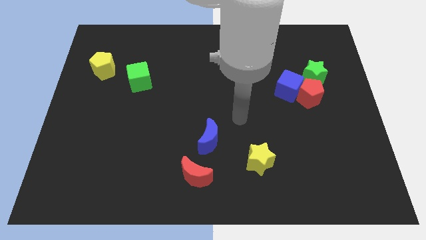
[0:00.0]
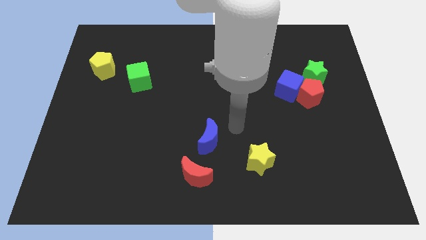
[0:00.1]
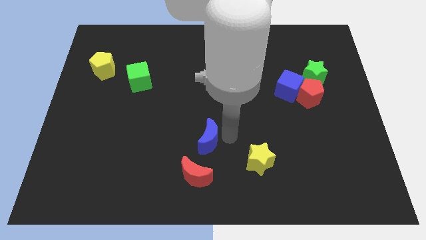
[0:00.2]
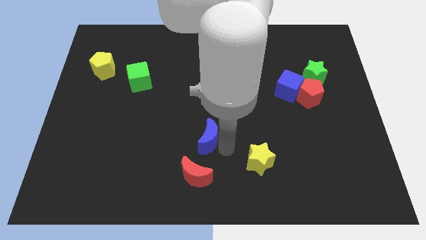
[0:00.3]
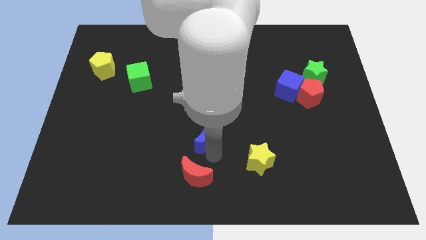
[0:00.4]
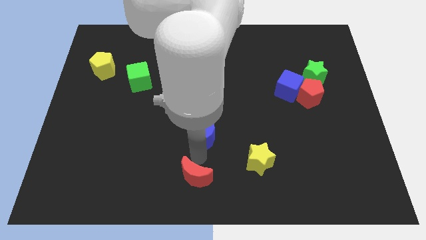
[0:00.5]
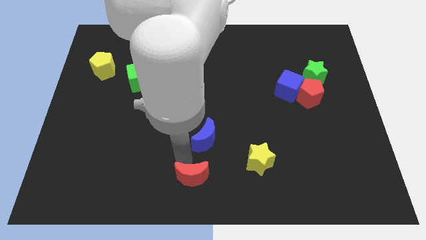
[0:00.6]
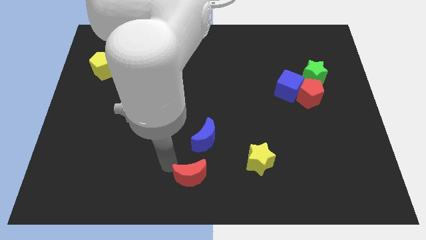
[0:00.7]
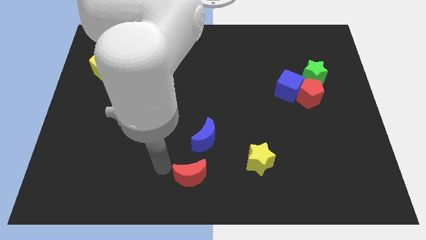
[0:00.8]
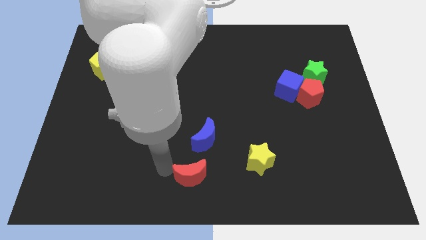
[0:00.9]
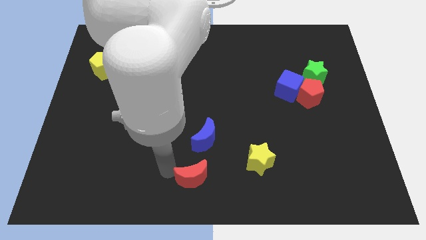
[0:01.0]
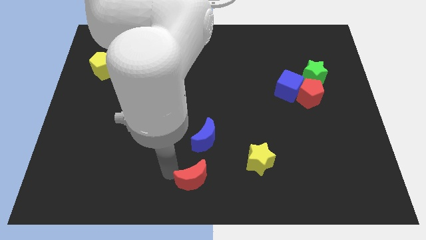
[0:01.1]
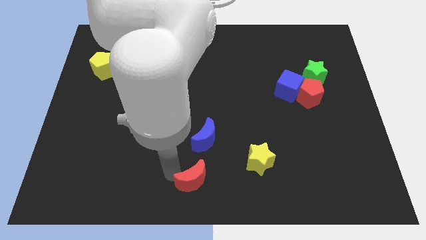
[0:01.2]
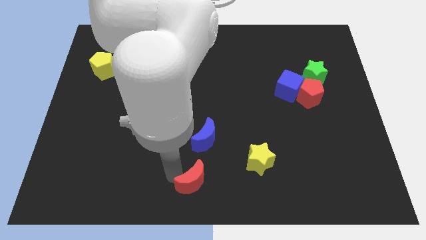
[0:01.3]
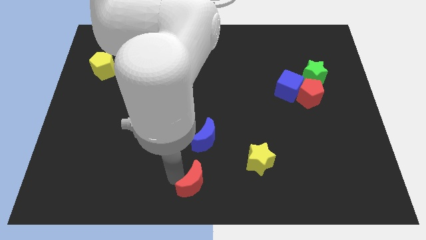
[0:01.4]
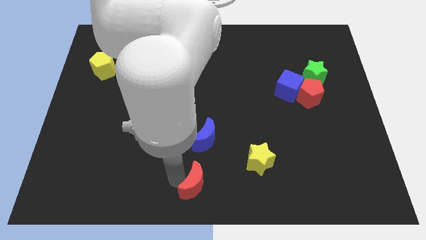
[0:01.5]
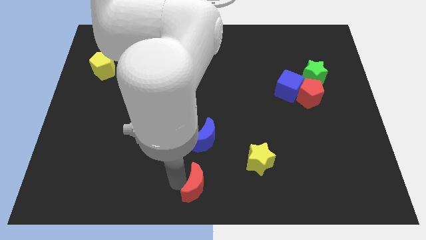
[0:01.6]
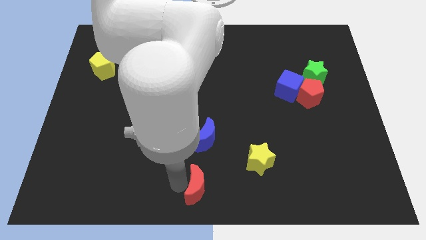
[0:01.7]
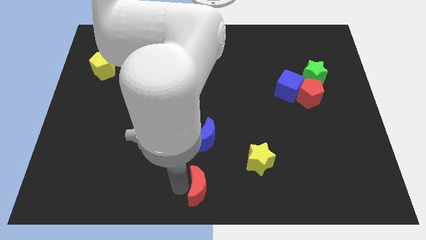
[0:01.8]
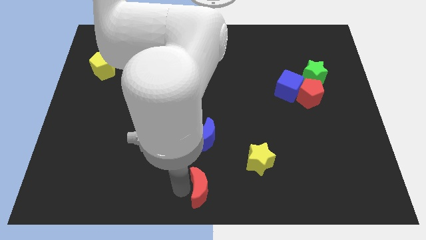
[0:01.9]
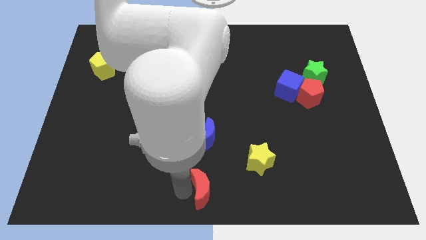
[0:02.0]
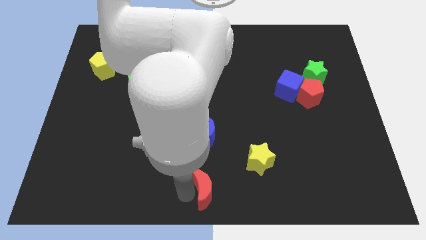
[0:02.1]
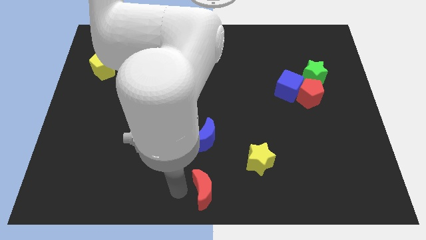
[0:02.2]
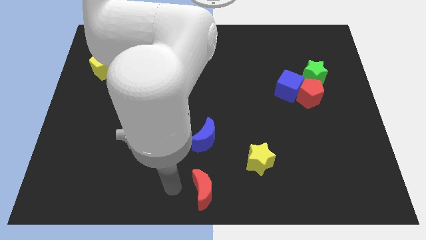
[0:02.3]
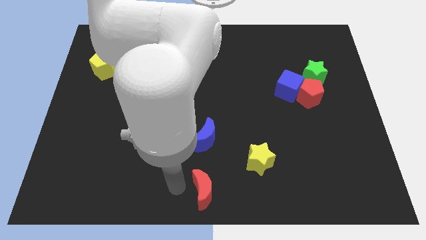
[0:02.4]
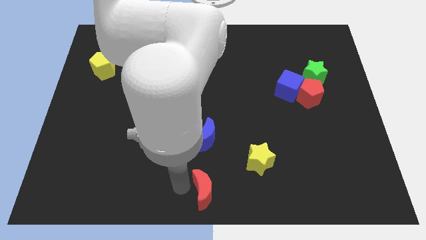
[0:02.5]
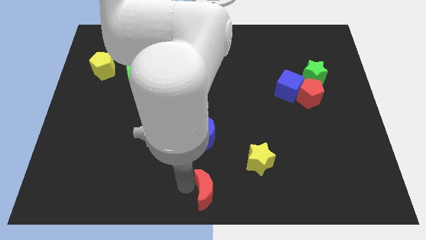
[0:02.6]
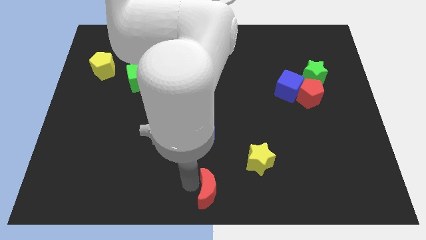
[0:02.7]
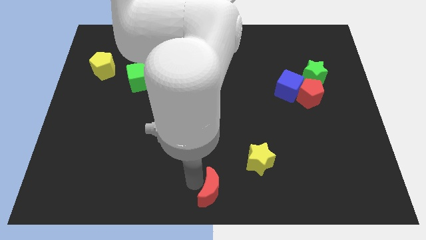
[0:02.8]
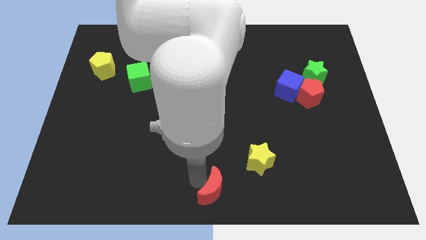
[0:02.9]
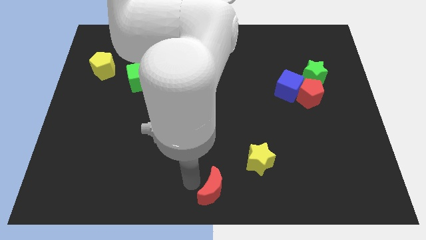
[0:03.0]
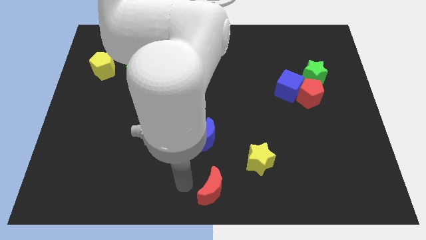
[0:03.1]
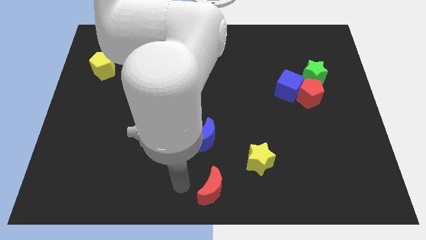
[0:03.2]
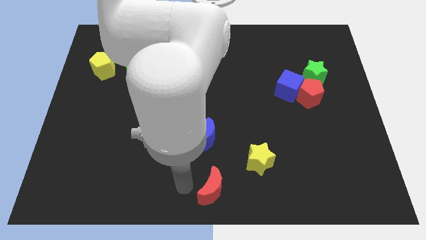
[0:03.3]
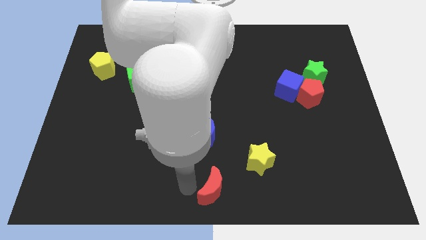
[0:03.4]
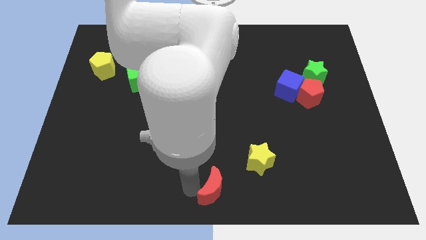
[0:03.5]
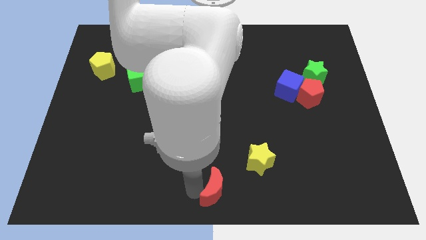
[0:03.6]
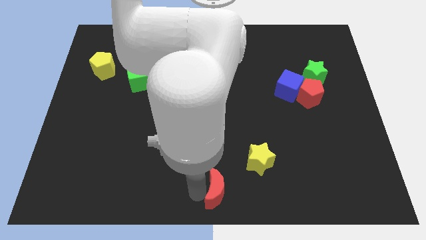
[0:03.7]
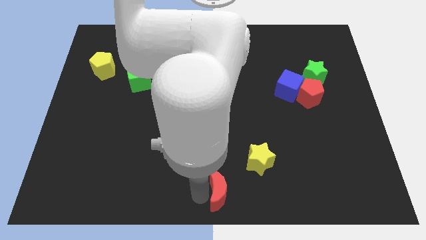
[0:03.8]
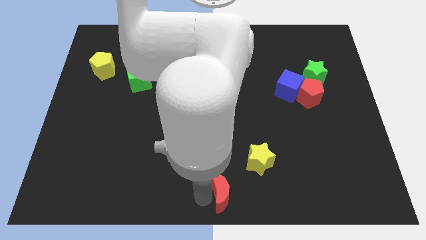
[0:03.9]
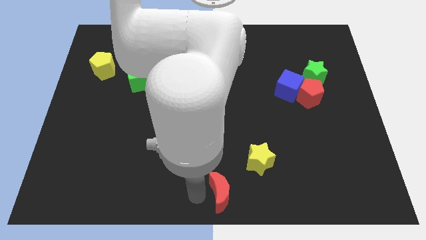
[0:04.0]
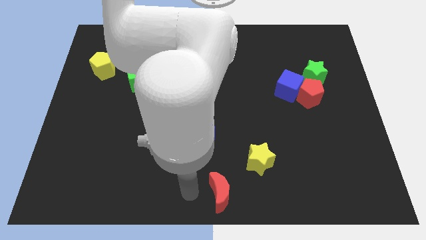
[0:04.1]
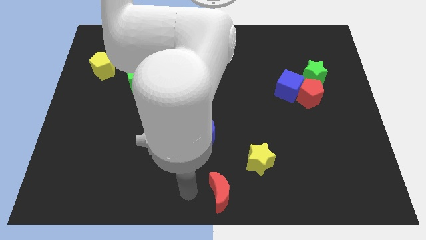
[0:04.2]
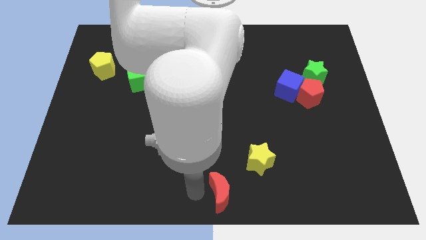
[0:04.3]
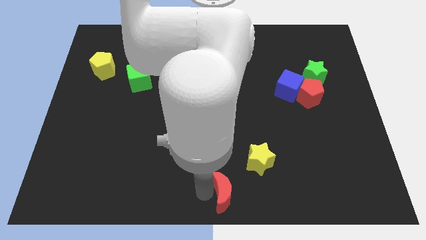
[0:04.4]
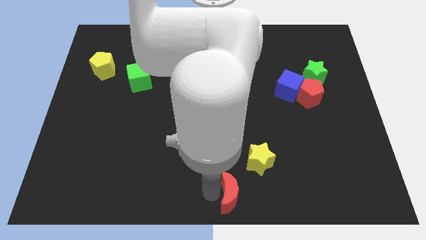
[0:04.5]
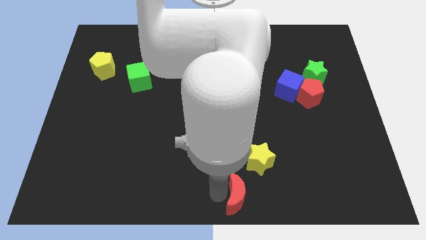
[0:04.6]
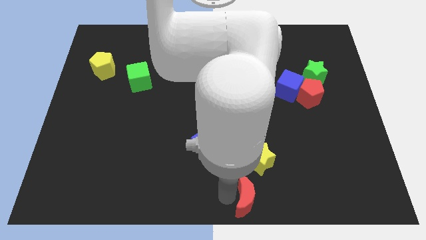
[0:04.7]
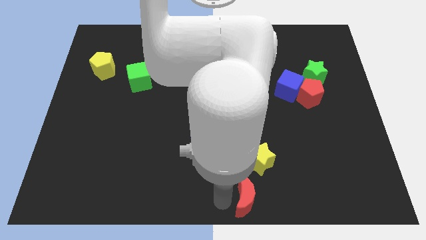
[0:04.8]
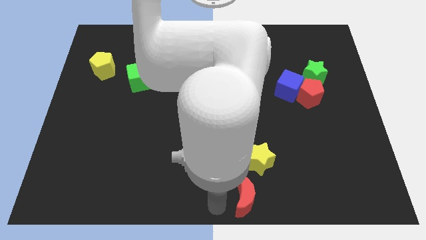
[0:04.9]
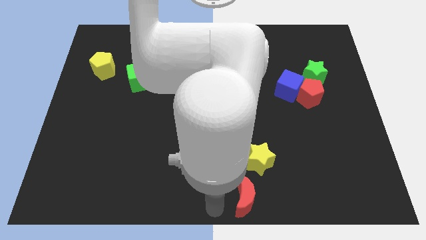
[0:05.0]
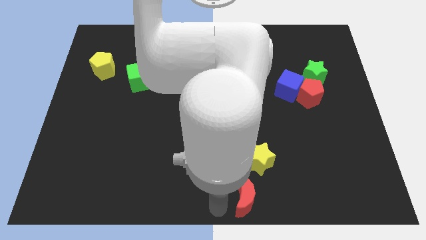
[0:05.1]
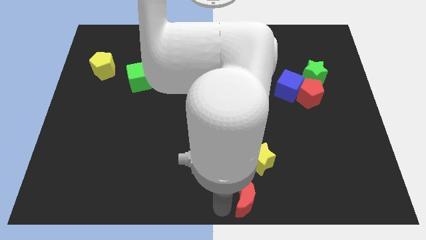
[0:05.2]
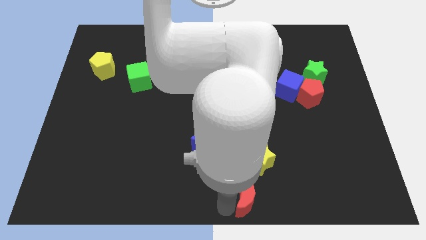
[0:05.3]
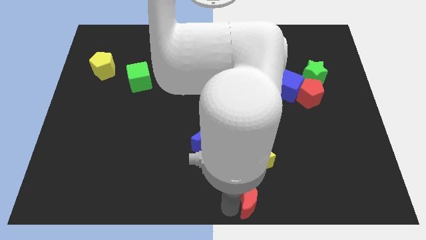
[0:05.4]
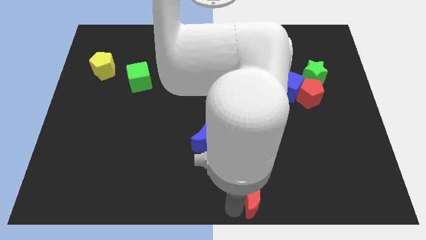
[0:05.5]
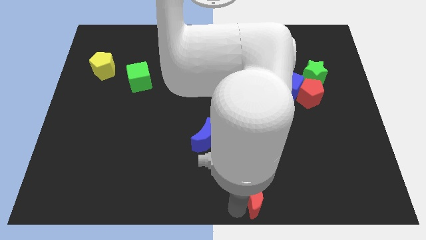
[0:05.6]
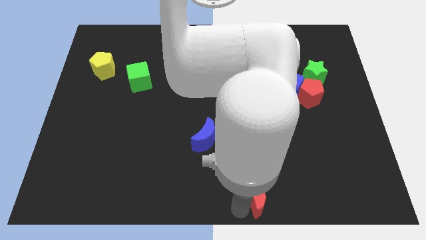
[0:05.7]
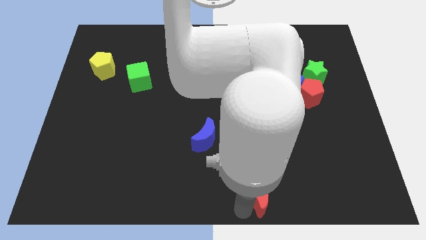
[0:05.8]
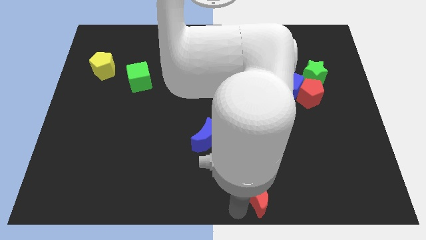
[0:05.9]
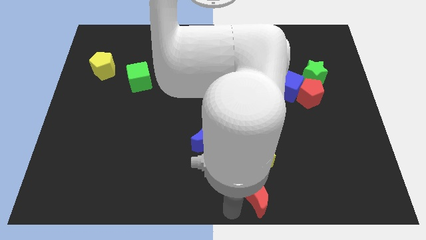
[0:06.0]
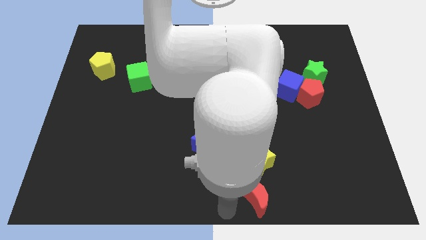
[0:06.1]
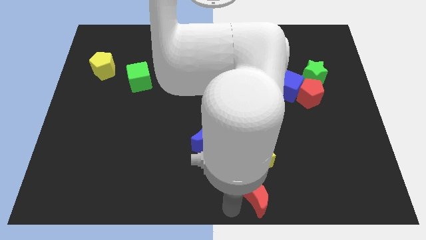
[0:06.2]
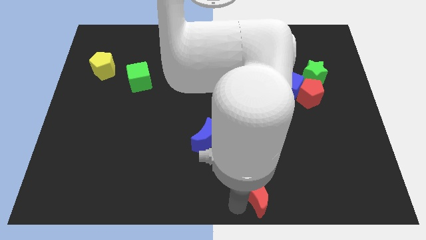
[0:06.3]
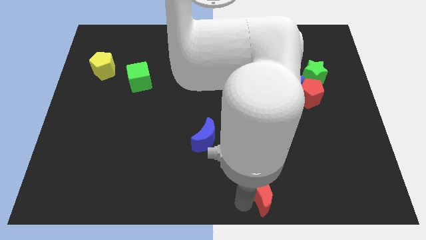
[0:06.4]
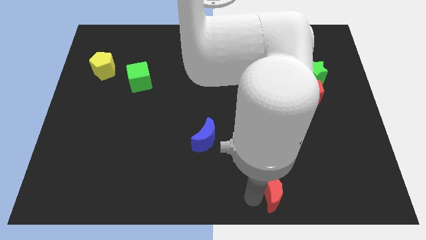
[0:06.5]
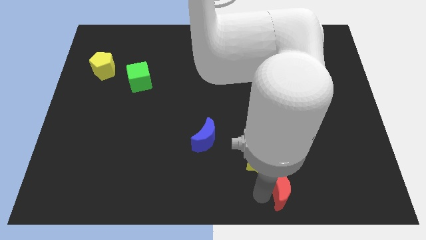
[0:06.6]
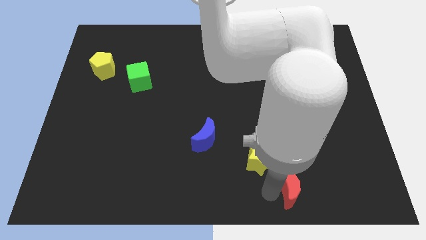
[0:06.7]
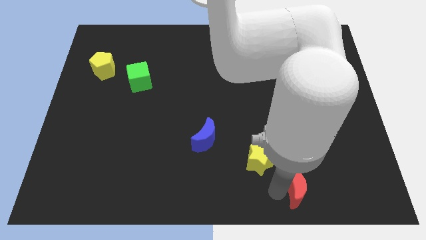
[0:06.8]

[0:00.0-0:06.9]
push the red moon to the right

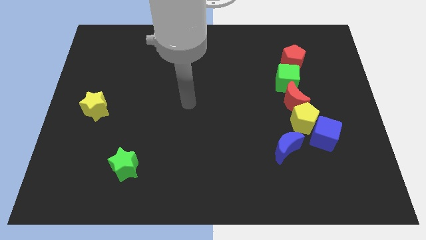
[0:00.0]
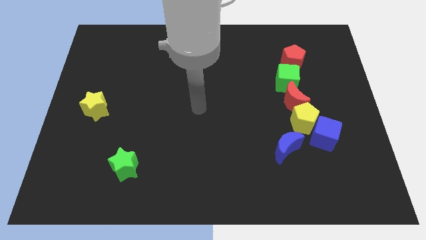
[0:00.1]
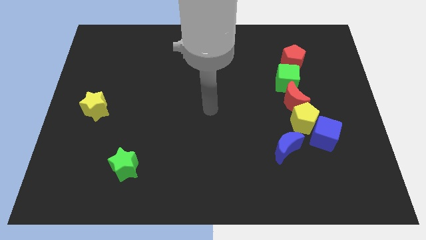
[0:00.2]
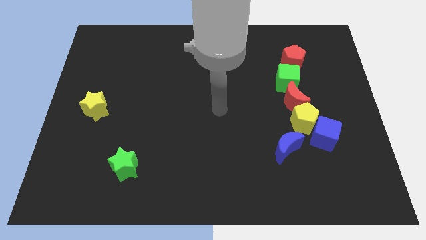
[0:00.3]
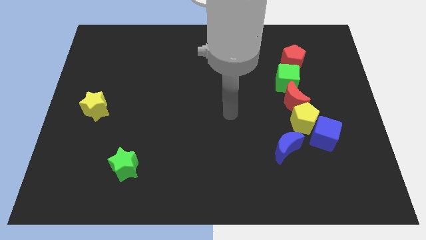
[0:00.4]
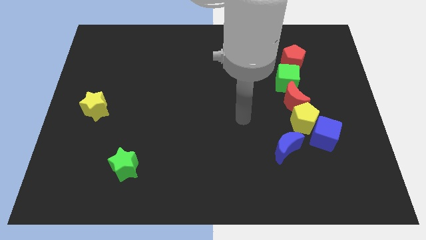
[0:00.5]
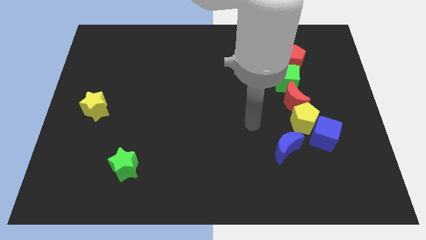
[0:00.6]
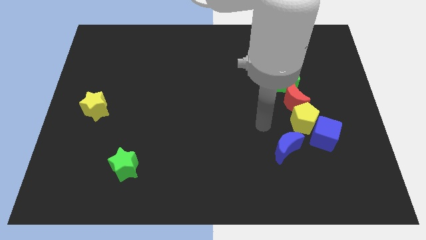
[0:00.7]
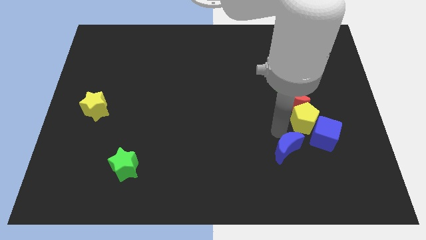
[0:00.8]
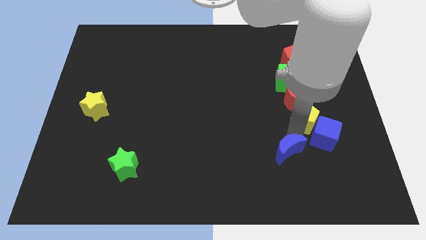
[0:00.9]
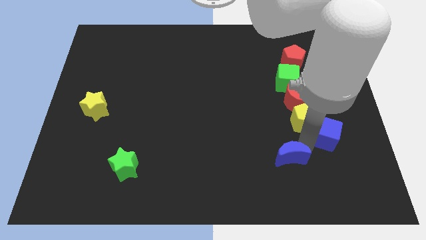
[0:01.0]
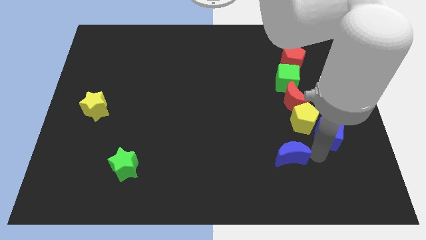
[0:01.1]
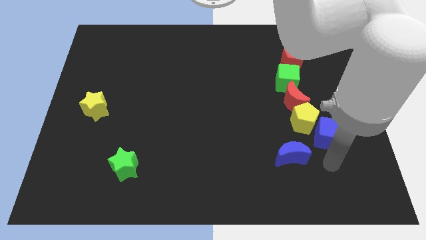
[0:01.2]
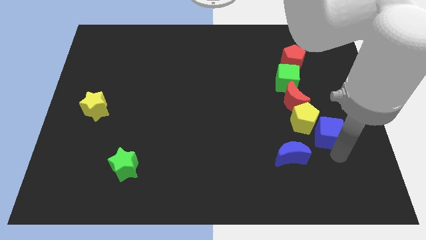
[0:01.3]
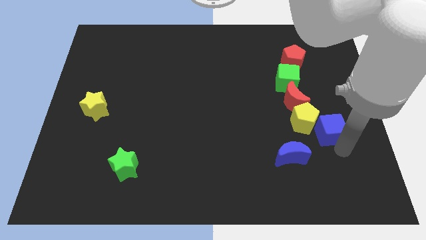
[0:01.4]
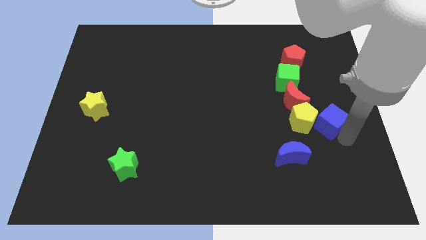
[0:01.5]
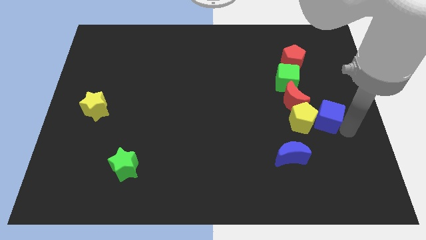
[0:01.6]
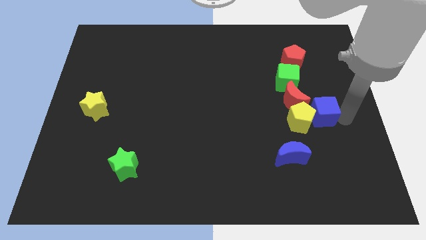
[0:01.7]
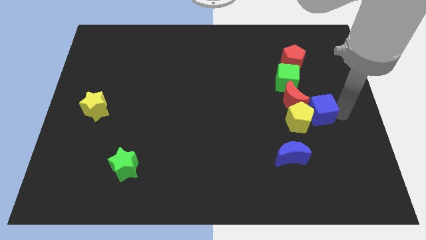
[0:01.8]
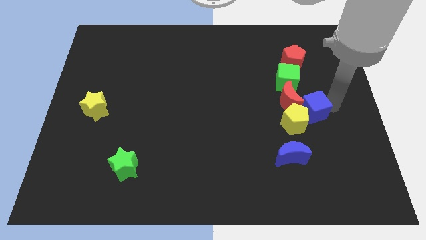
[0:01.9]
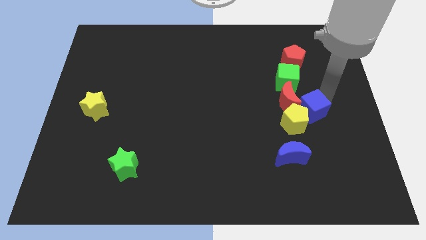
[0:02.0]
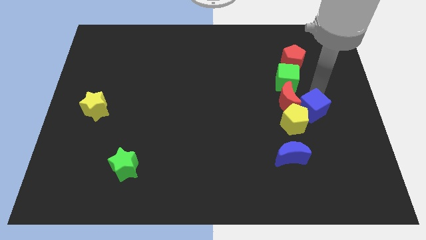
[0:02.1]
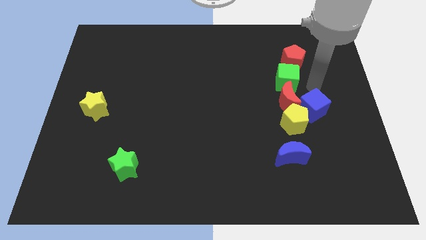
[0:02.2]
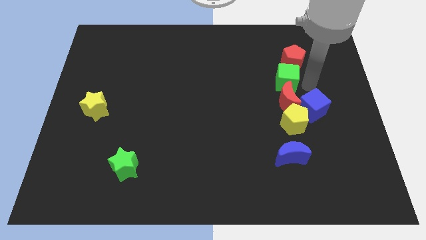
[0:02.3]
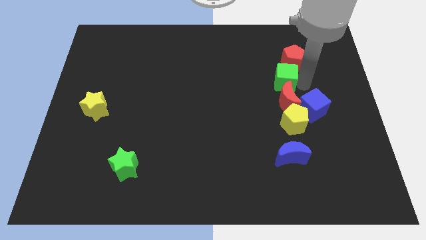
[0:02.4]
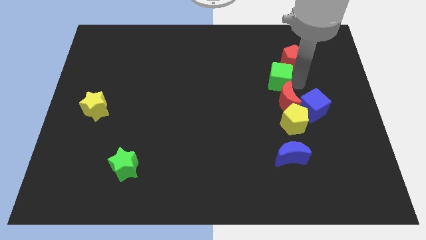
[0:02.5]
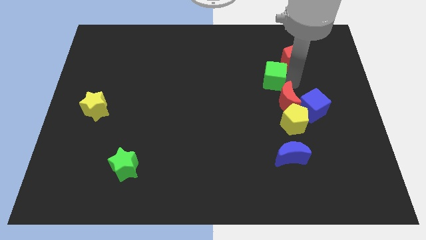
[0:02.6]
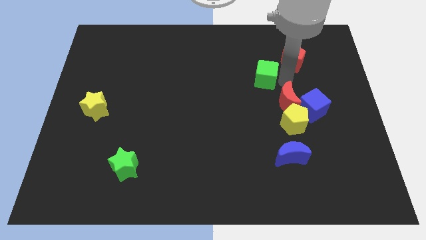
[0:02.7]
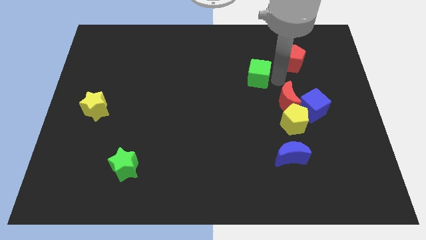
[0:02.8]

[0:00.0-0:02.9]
slightly slide the green cube to the left
